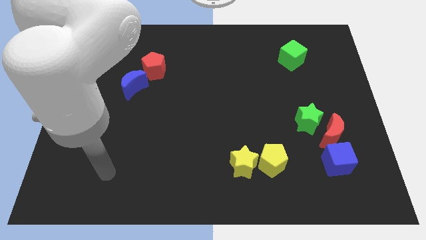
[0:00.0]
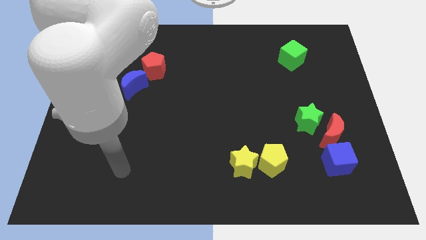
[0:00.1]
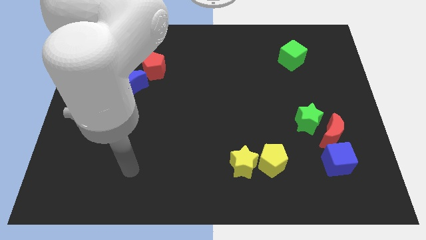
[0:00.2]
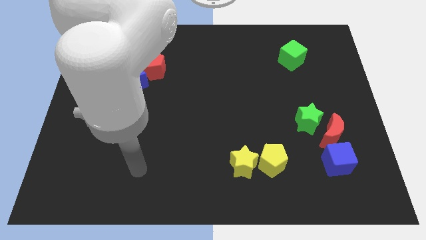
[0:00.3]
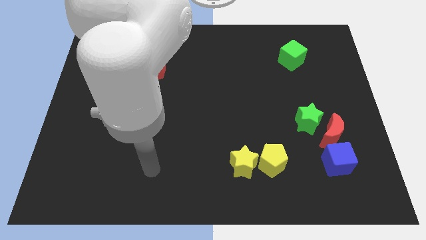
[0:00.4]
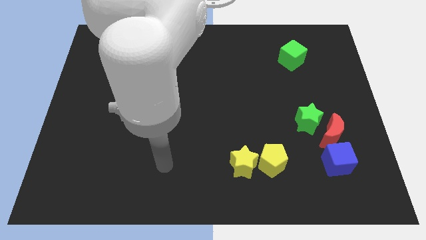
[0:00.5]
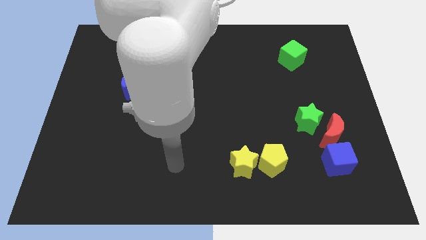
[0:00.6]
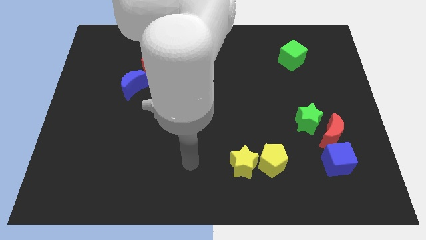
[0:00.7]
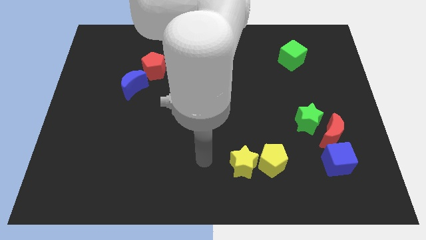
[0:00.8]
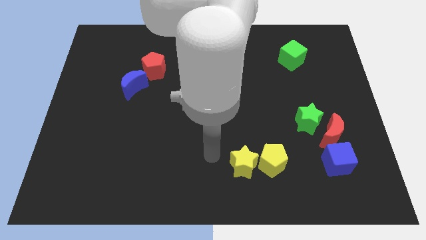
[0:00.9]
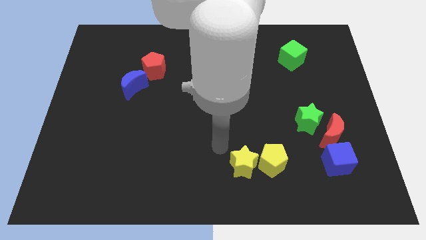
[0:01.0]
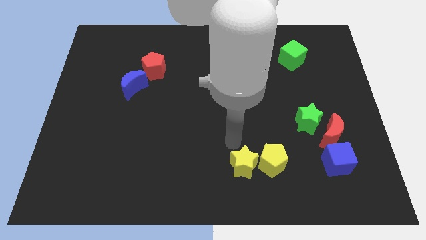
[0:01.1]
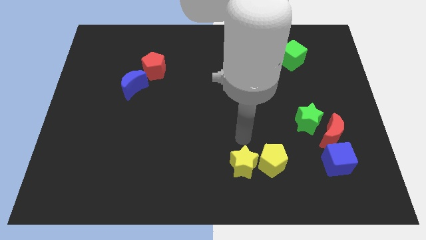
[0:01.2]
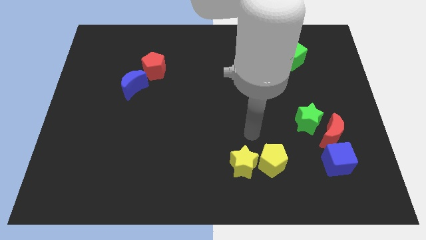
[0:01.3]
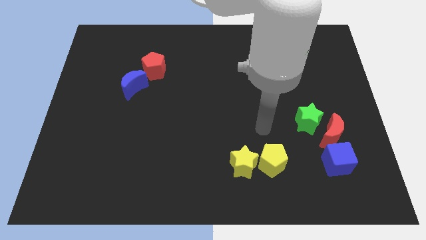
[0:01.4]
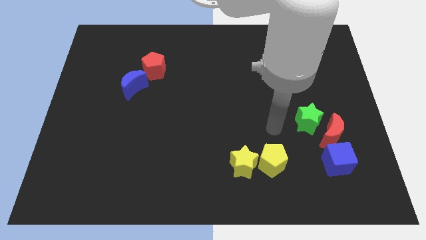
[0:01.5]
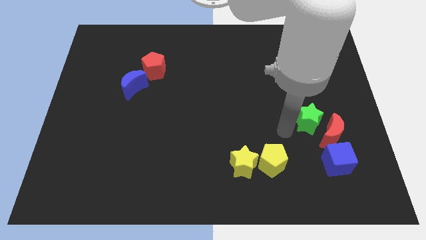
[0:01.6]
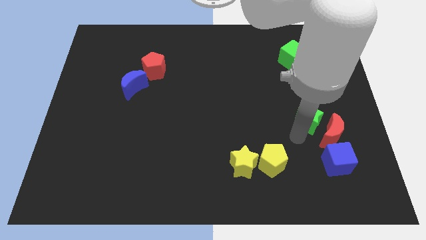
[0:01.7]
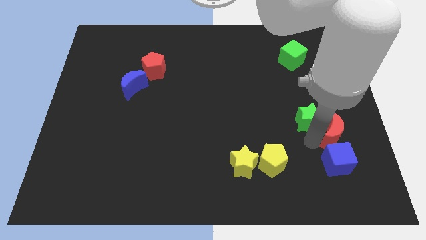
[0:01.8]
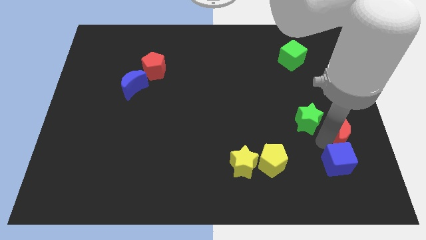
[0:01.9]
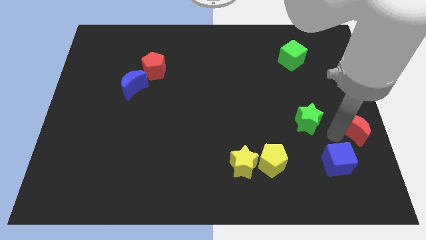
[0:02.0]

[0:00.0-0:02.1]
separate the green star from the red moon

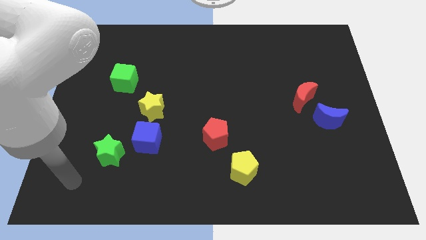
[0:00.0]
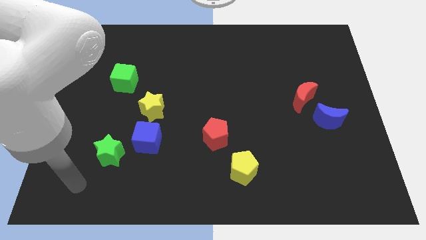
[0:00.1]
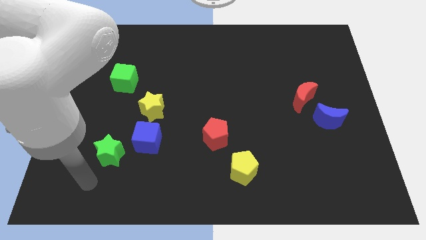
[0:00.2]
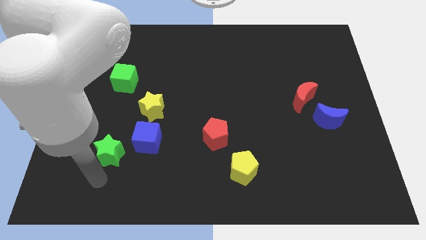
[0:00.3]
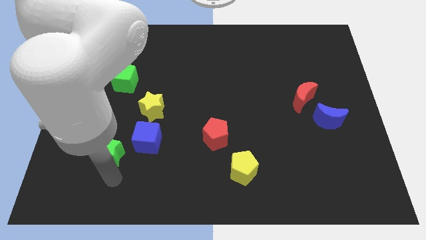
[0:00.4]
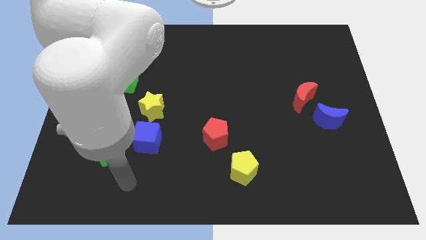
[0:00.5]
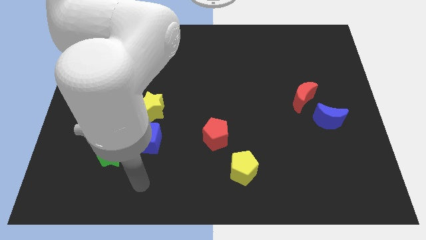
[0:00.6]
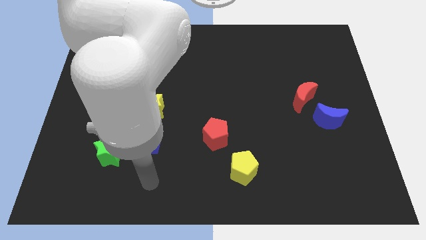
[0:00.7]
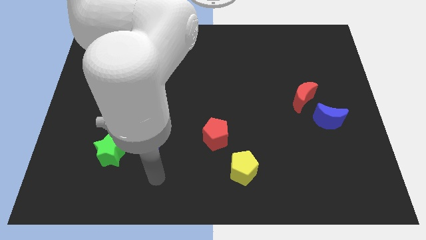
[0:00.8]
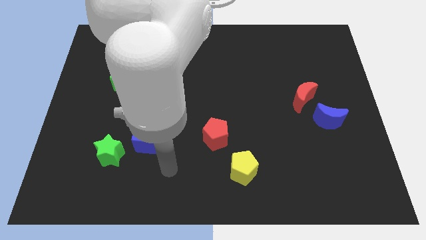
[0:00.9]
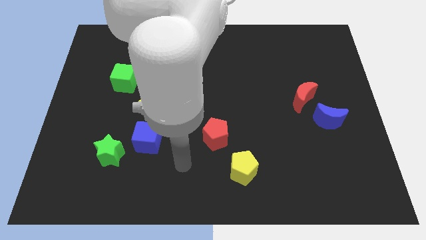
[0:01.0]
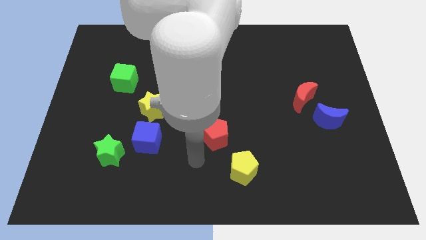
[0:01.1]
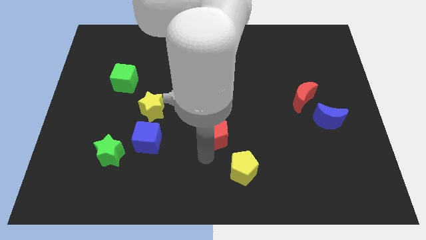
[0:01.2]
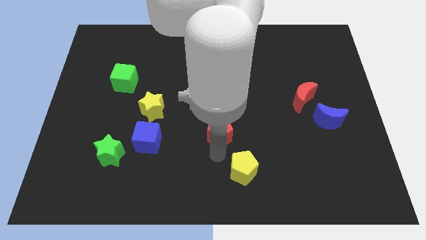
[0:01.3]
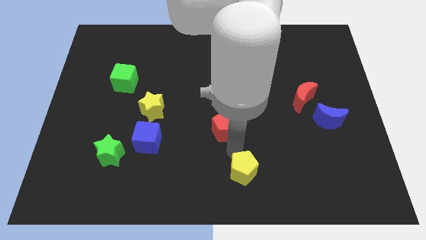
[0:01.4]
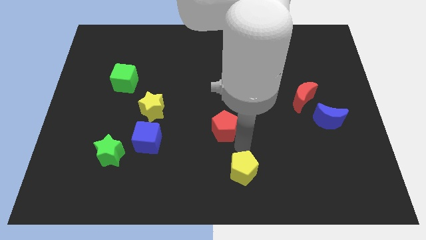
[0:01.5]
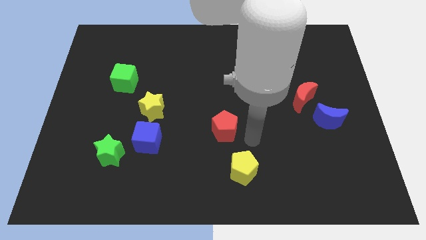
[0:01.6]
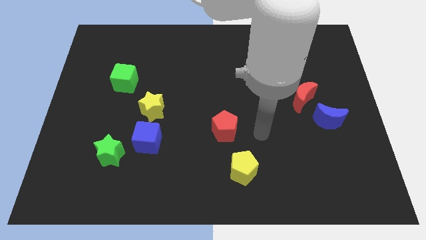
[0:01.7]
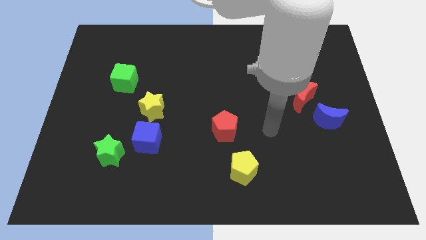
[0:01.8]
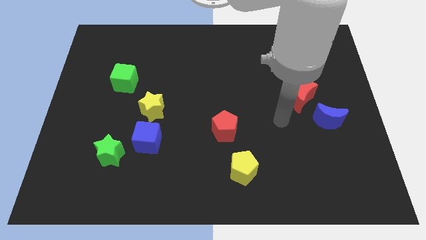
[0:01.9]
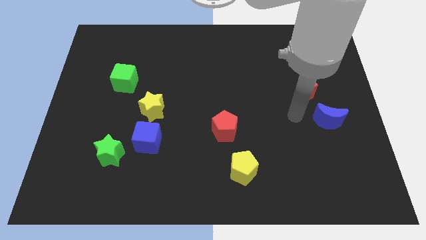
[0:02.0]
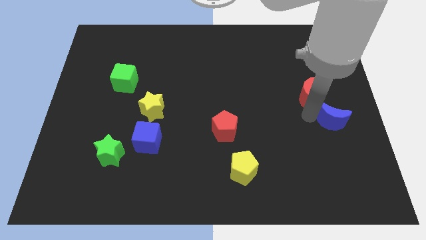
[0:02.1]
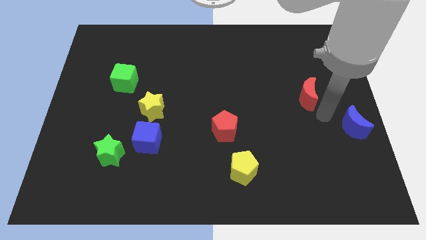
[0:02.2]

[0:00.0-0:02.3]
separate the red moon from the blue moon

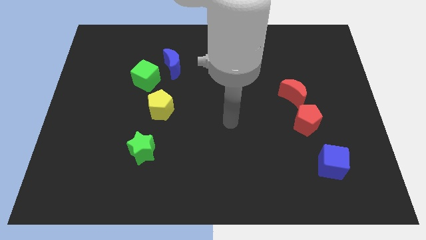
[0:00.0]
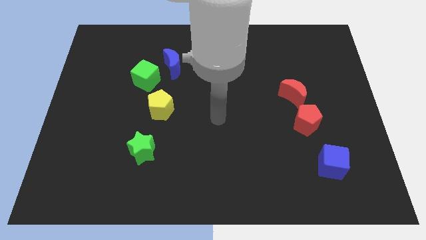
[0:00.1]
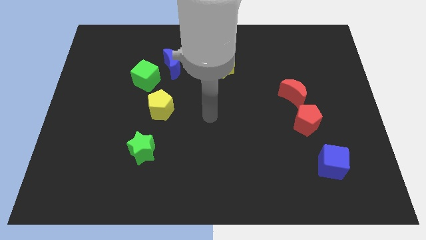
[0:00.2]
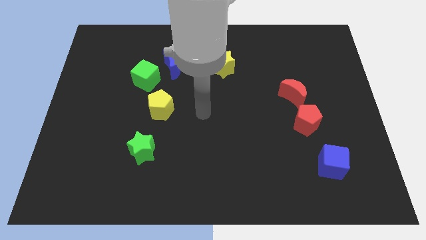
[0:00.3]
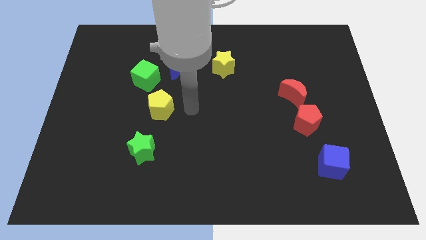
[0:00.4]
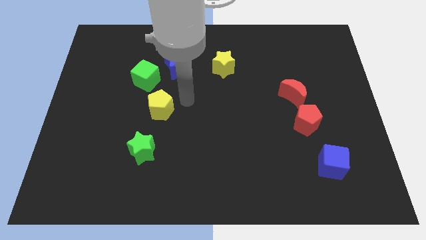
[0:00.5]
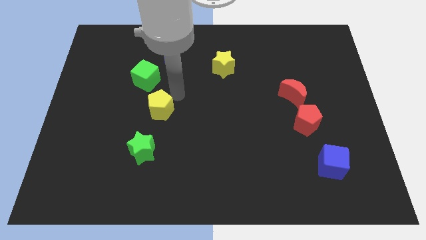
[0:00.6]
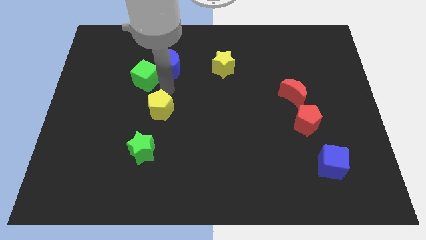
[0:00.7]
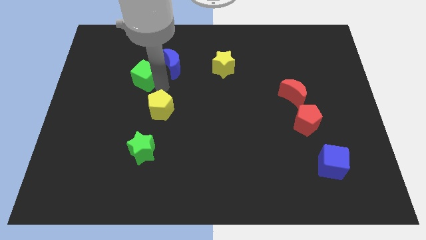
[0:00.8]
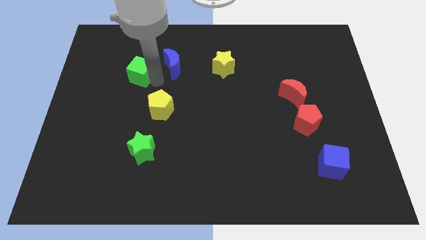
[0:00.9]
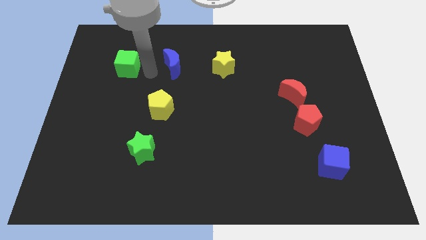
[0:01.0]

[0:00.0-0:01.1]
move the blue moon away from the green cube

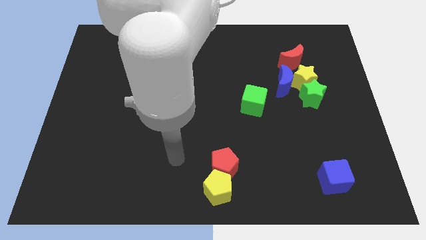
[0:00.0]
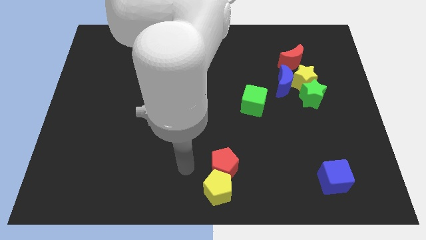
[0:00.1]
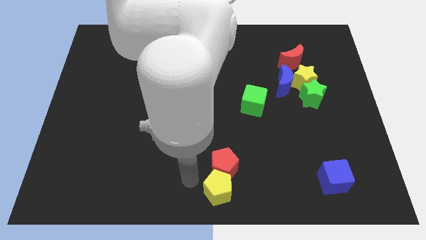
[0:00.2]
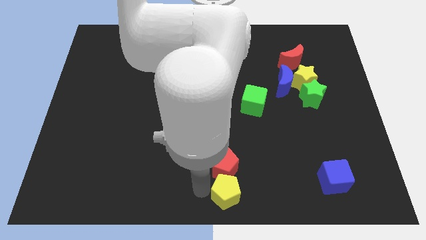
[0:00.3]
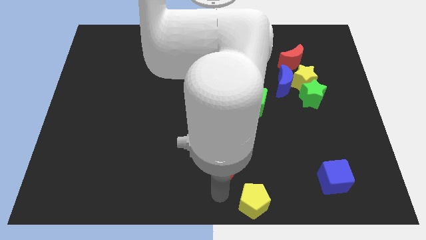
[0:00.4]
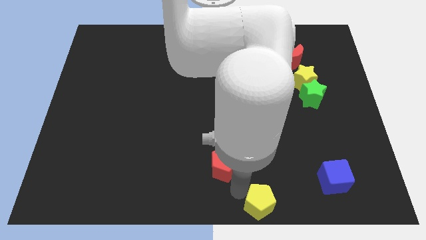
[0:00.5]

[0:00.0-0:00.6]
move the red pentagon away from the yellow pentagon

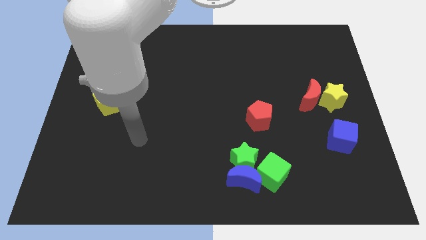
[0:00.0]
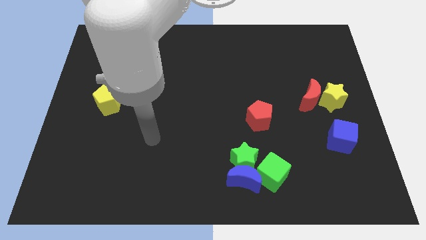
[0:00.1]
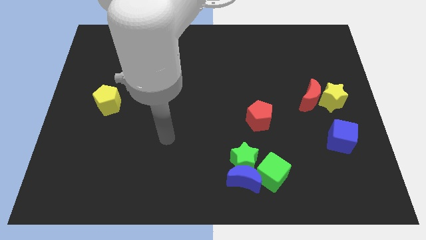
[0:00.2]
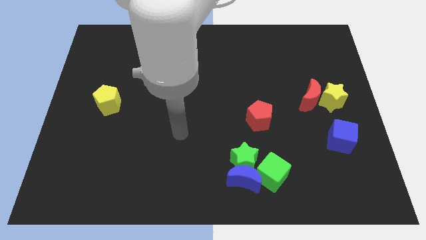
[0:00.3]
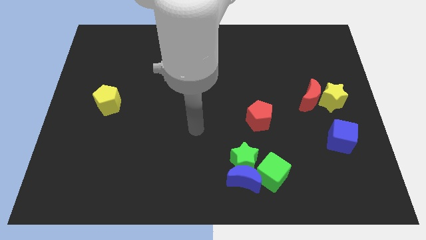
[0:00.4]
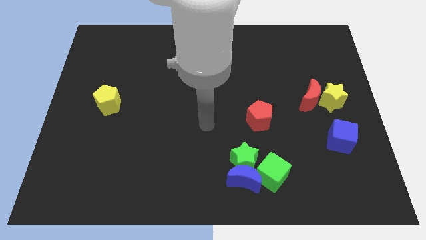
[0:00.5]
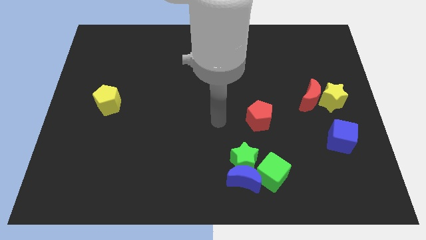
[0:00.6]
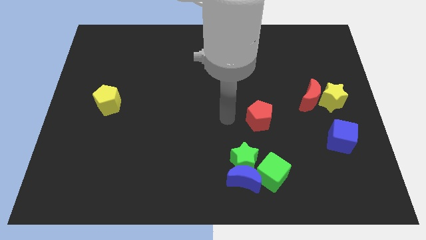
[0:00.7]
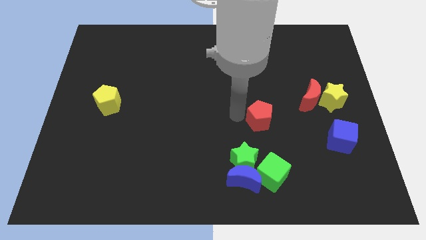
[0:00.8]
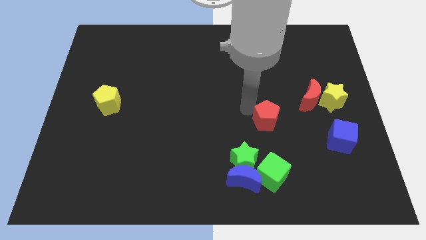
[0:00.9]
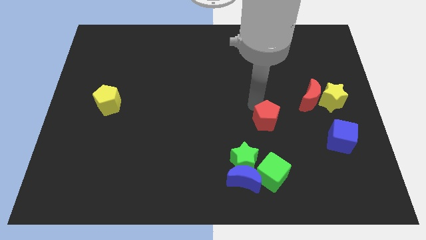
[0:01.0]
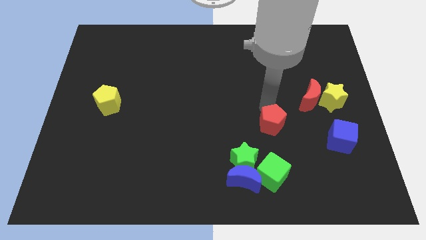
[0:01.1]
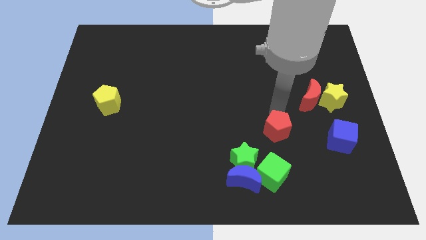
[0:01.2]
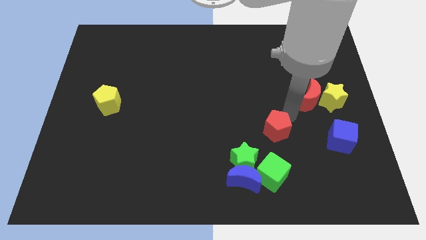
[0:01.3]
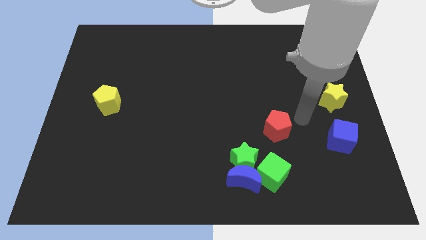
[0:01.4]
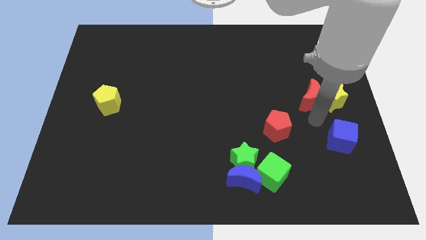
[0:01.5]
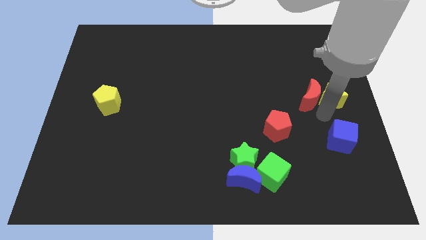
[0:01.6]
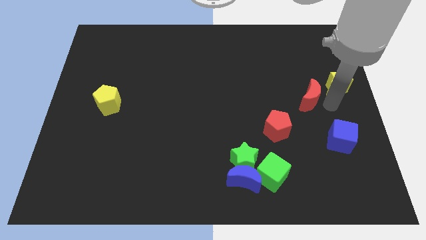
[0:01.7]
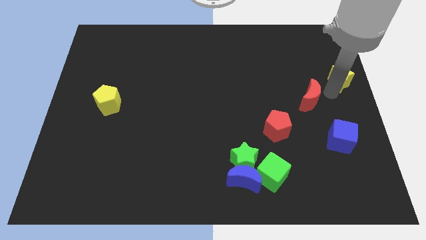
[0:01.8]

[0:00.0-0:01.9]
separate the red moon from the yellow star

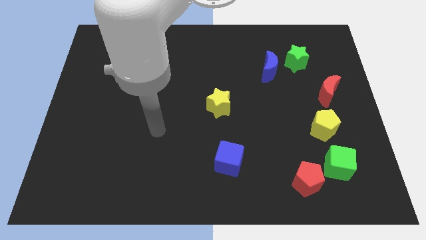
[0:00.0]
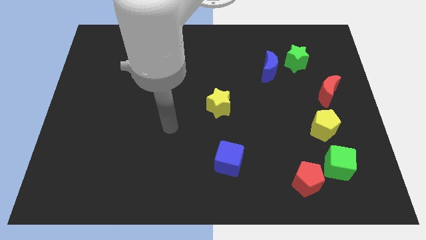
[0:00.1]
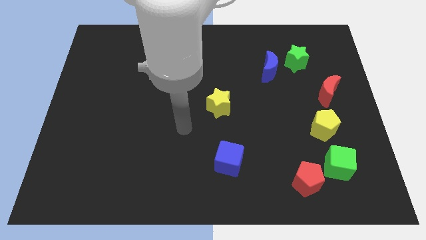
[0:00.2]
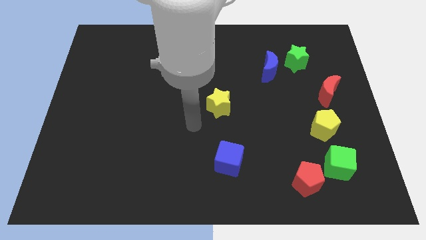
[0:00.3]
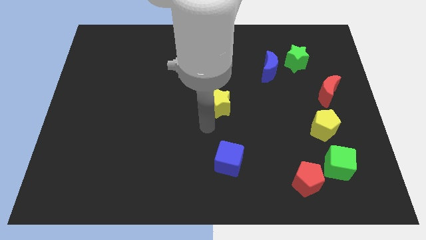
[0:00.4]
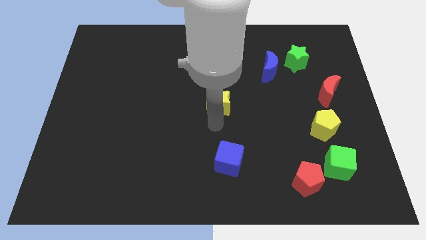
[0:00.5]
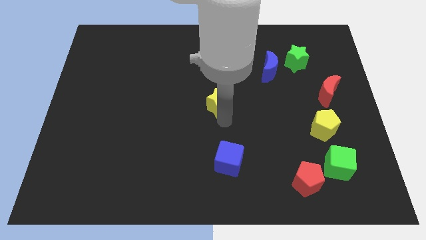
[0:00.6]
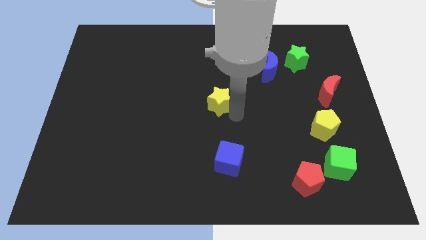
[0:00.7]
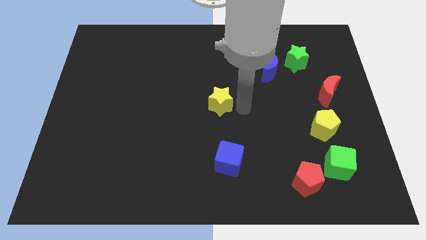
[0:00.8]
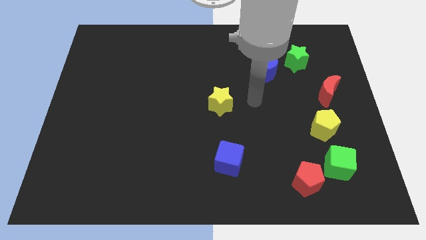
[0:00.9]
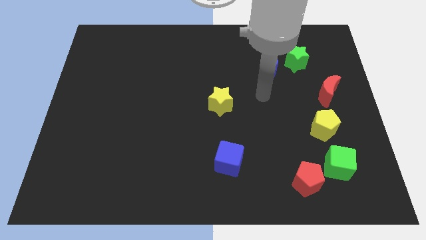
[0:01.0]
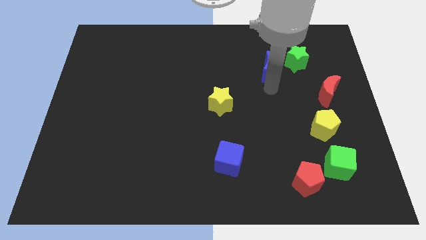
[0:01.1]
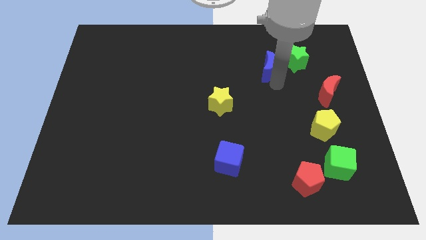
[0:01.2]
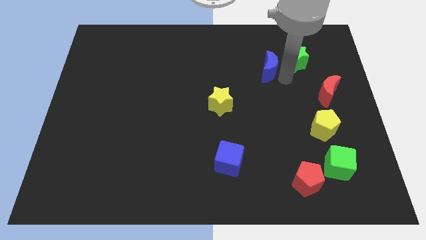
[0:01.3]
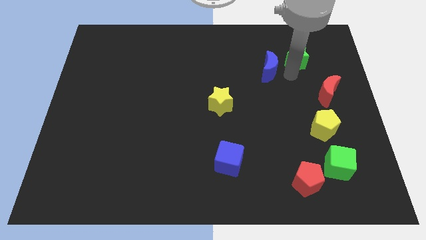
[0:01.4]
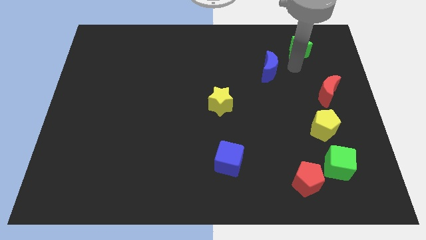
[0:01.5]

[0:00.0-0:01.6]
move the blue moon away from the green star
